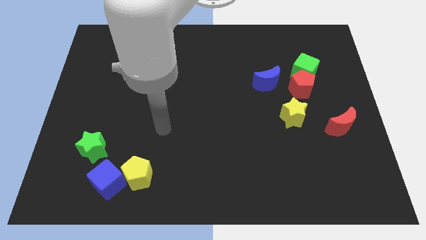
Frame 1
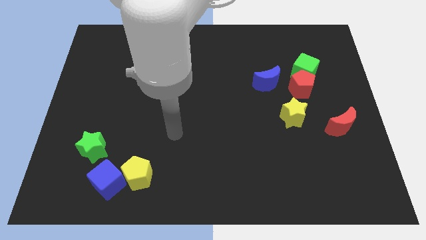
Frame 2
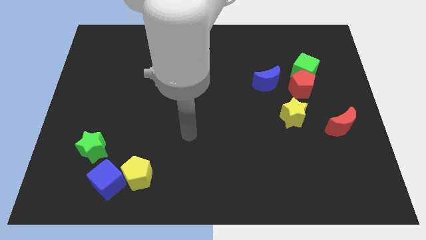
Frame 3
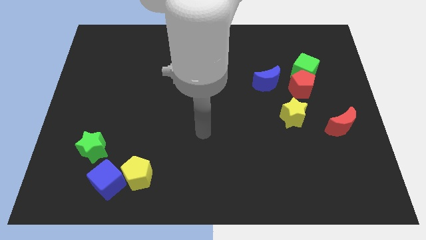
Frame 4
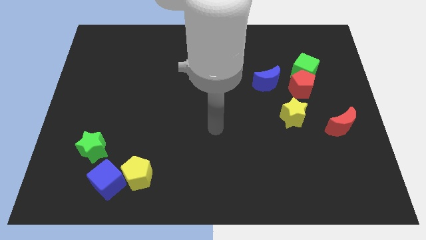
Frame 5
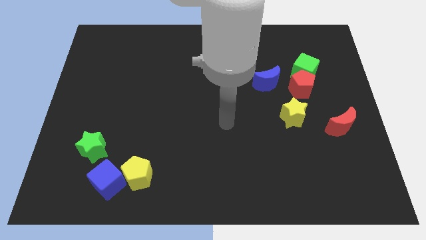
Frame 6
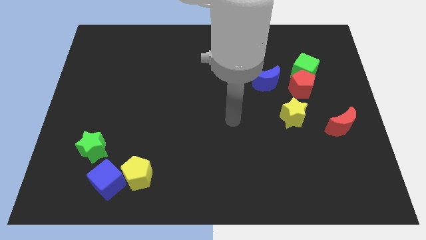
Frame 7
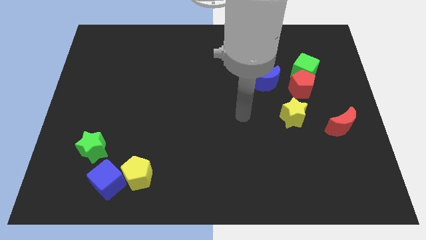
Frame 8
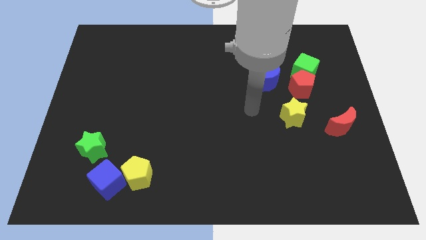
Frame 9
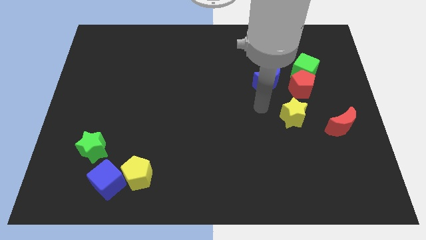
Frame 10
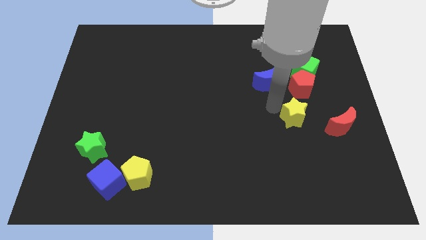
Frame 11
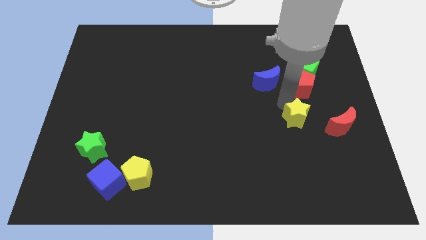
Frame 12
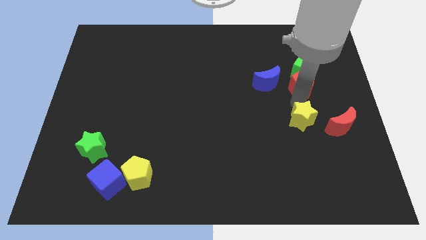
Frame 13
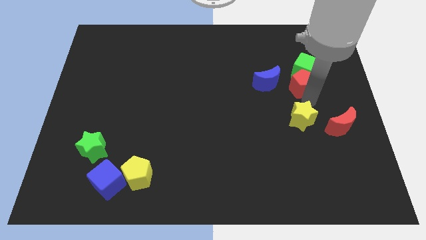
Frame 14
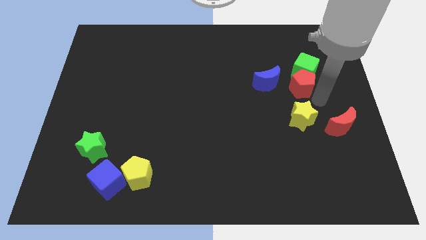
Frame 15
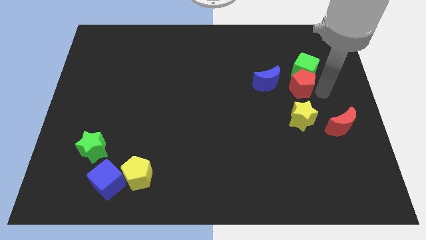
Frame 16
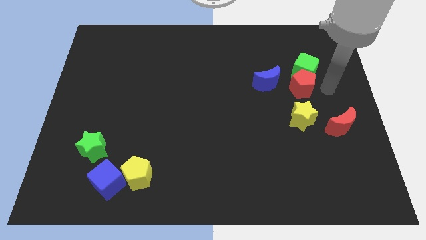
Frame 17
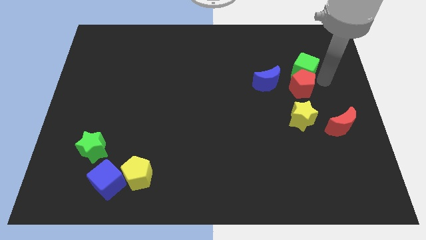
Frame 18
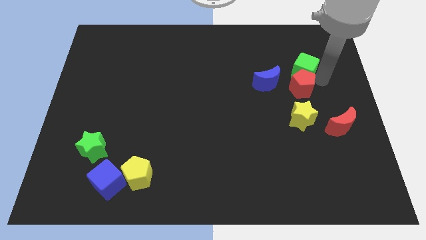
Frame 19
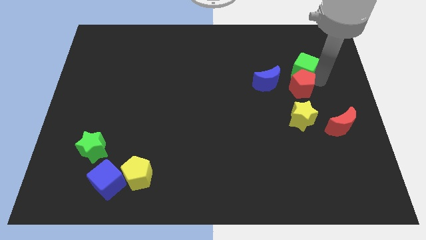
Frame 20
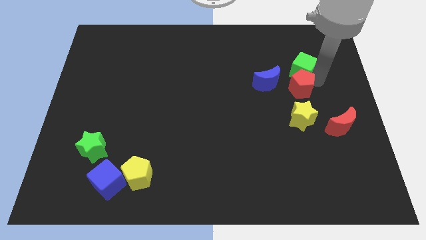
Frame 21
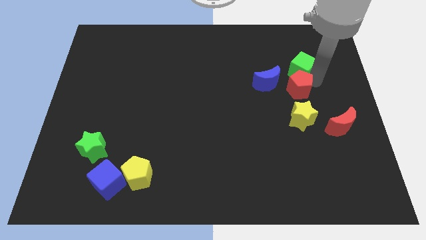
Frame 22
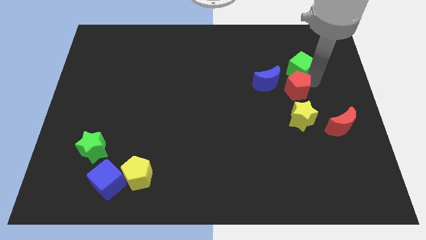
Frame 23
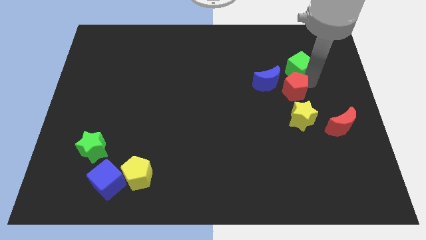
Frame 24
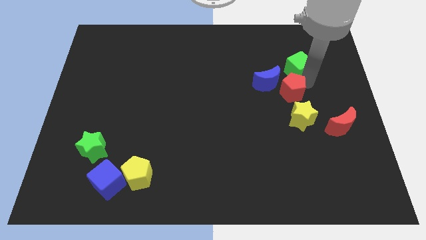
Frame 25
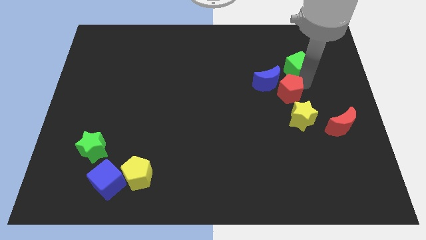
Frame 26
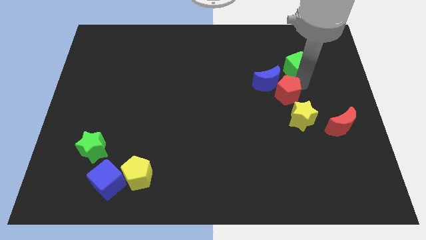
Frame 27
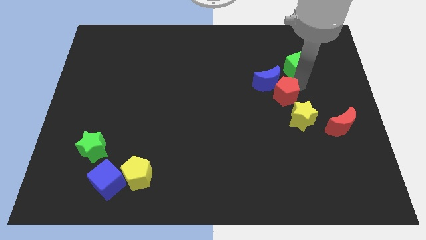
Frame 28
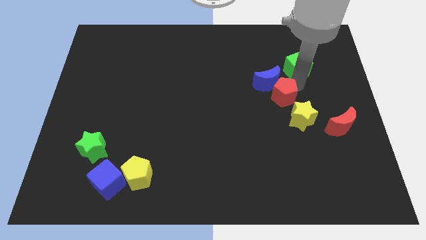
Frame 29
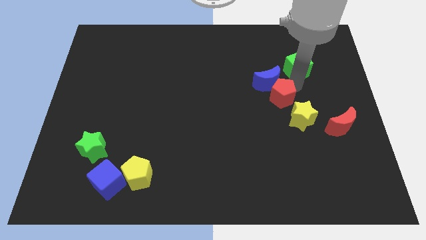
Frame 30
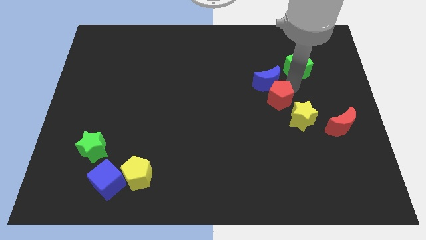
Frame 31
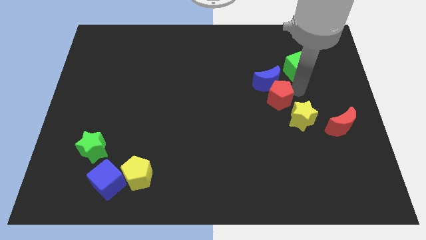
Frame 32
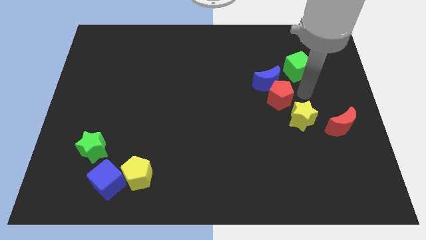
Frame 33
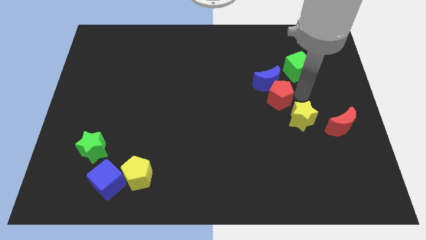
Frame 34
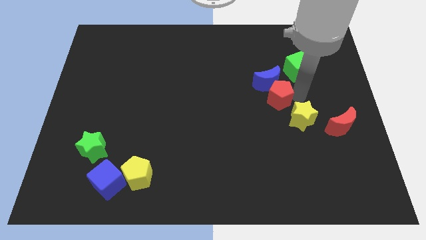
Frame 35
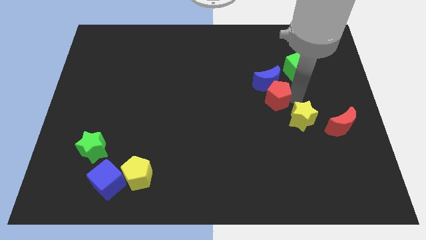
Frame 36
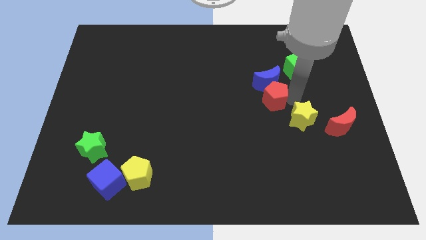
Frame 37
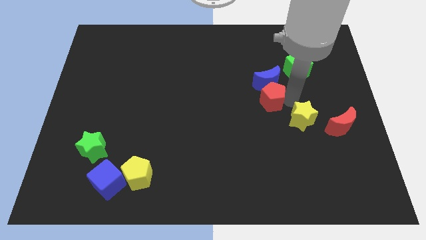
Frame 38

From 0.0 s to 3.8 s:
slide the red pentagon left a little

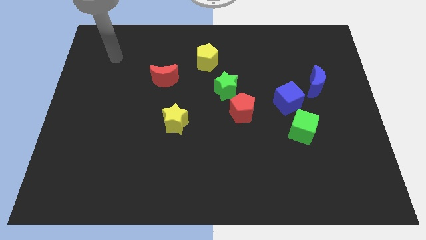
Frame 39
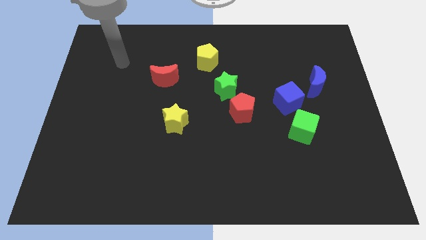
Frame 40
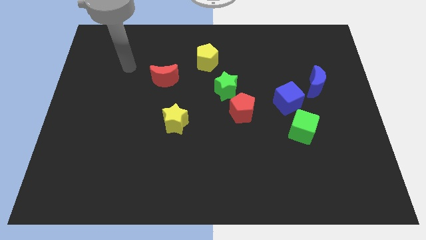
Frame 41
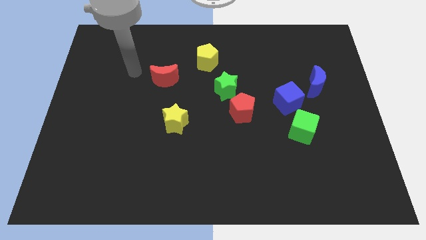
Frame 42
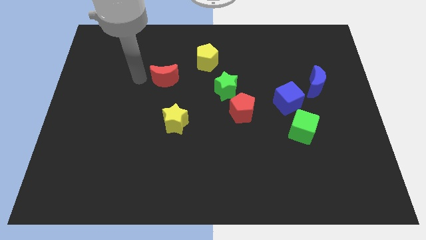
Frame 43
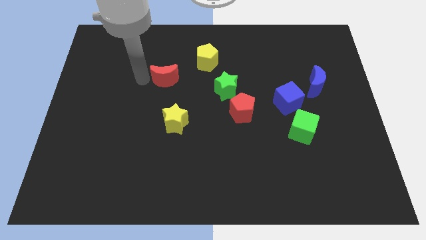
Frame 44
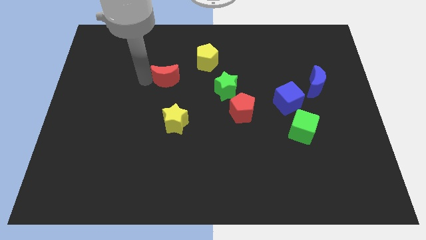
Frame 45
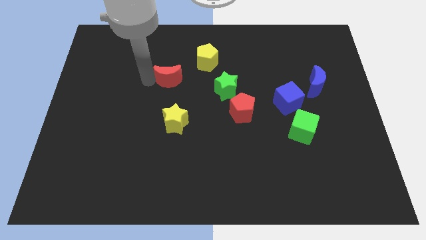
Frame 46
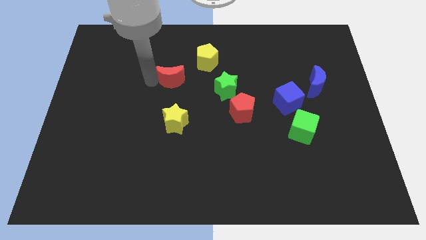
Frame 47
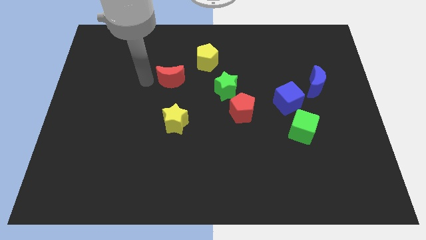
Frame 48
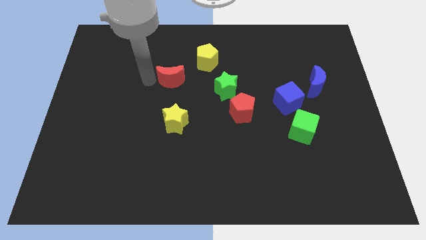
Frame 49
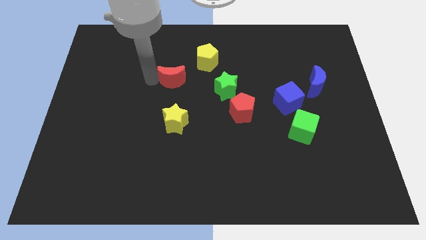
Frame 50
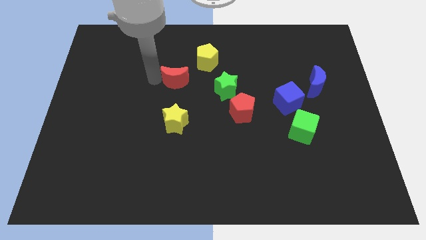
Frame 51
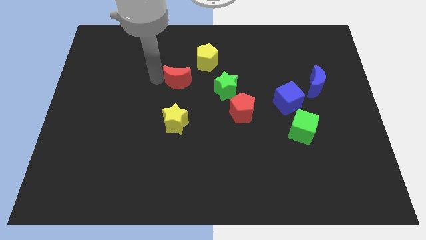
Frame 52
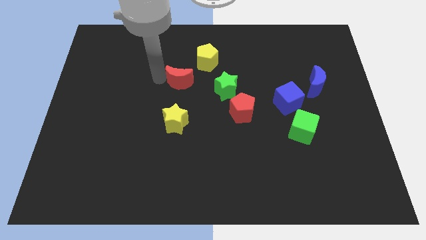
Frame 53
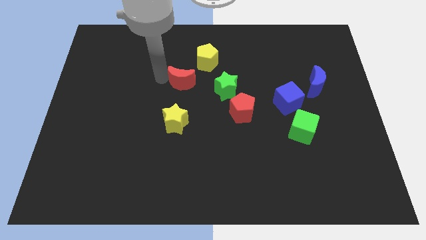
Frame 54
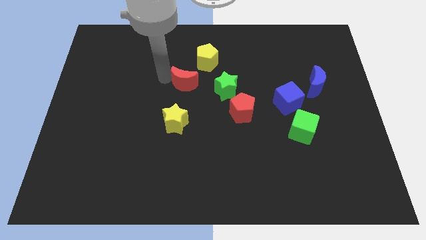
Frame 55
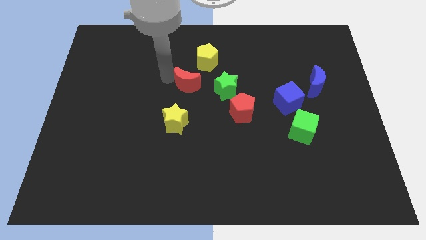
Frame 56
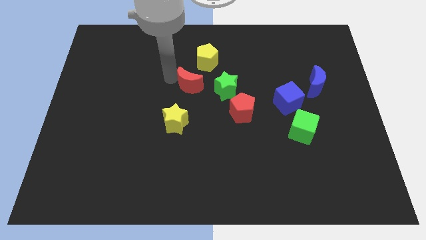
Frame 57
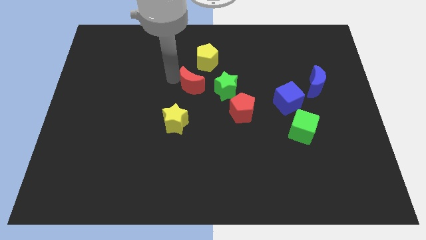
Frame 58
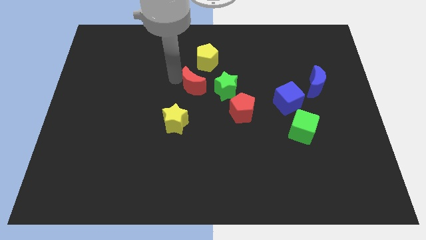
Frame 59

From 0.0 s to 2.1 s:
slightly push the red moon to the right

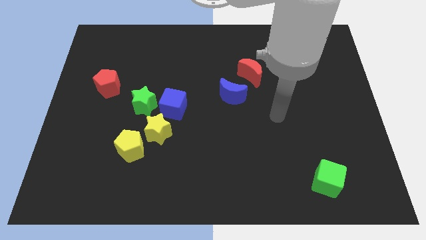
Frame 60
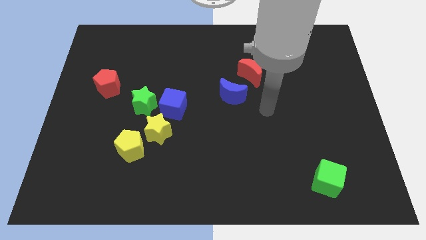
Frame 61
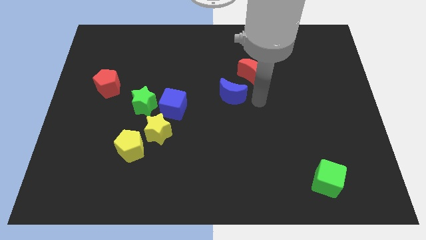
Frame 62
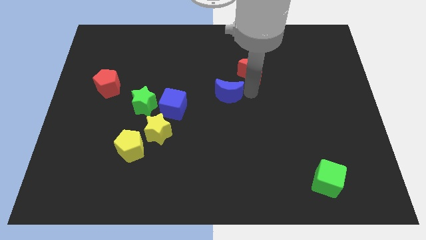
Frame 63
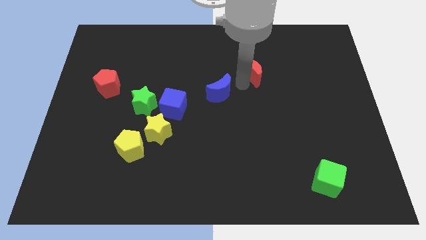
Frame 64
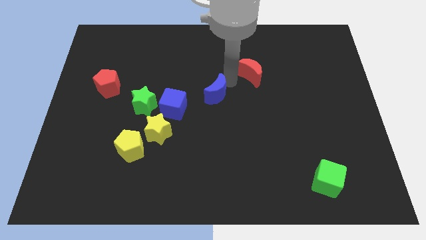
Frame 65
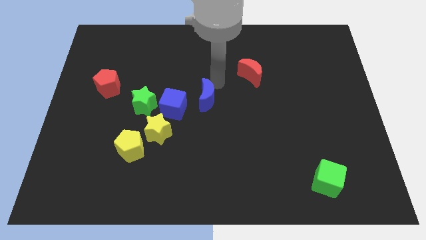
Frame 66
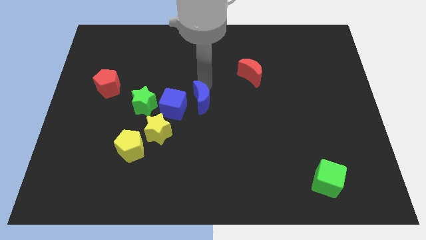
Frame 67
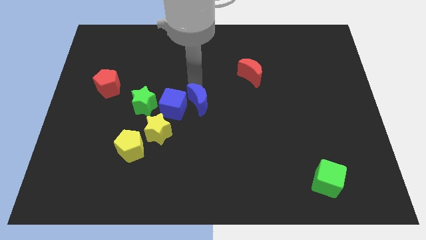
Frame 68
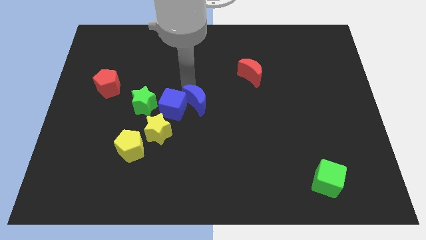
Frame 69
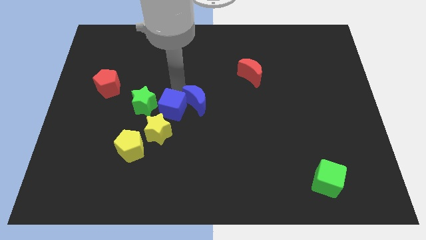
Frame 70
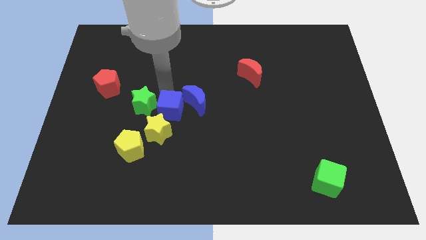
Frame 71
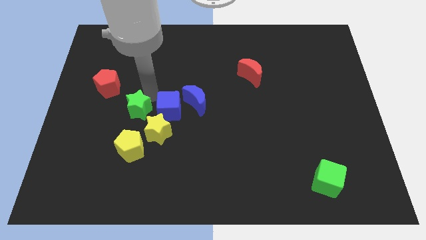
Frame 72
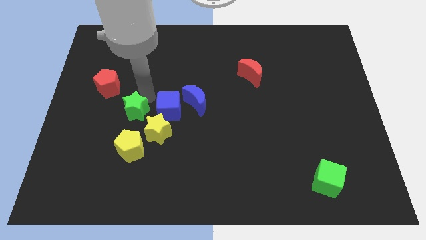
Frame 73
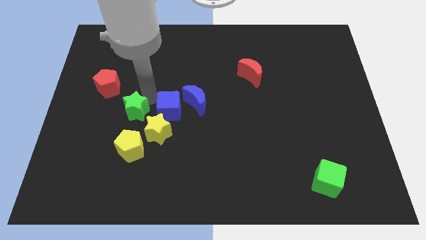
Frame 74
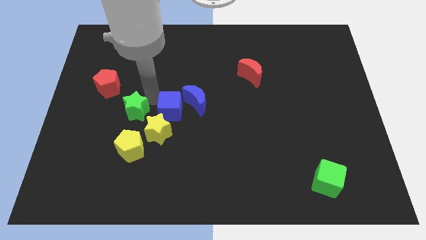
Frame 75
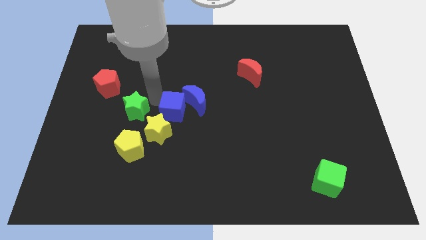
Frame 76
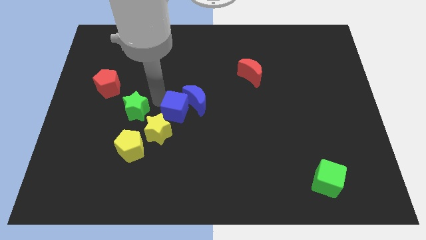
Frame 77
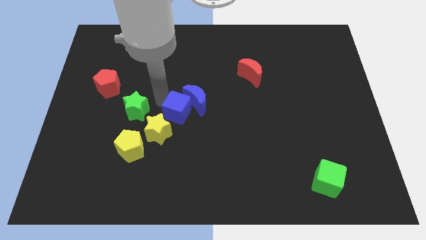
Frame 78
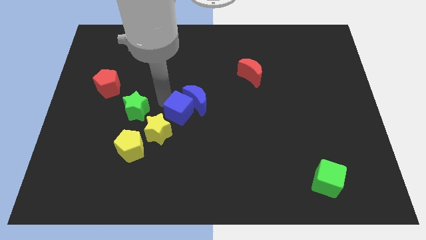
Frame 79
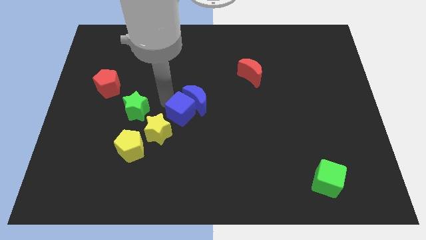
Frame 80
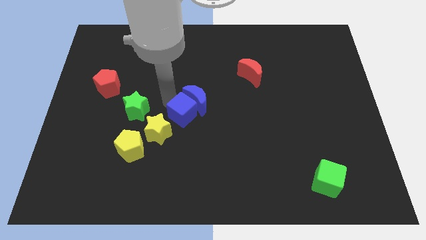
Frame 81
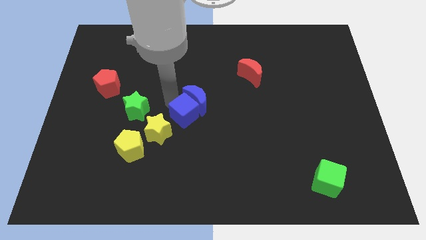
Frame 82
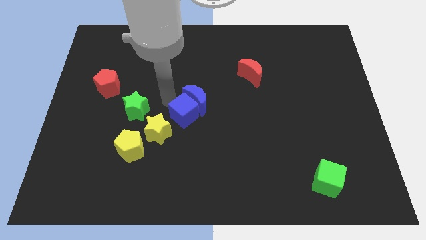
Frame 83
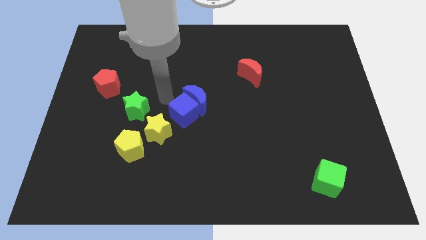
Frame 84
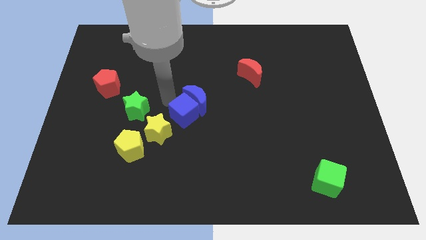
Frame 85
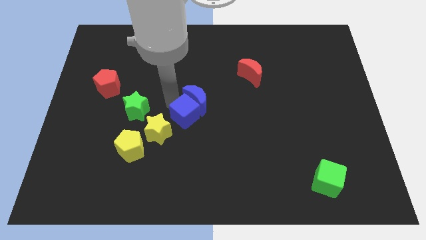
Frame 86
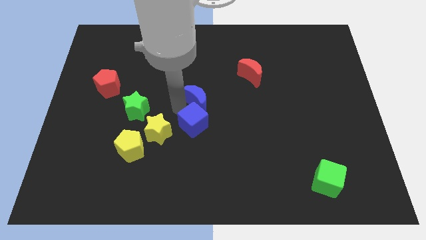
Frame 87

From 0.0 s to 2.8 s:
move the blue cube somewhat diagonally down and to the right
